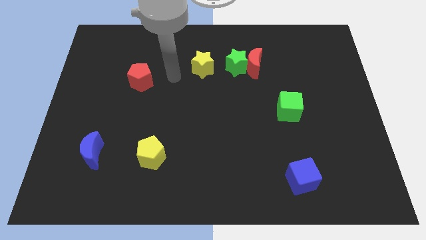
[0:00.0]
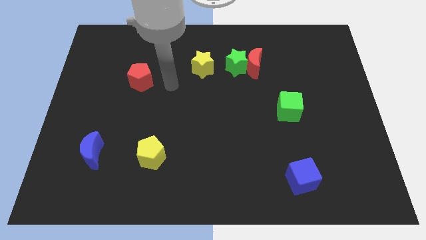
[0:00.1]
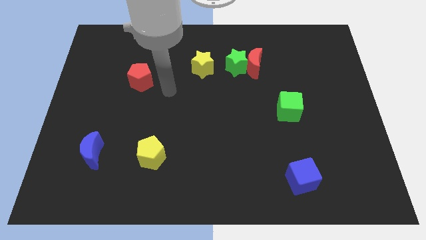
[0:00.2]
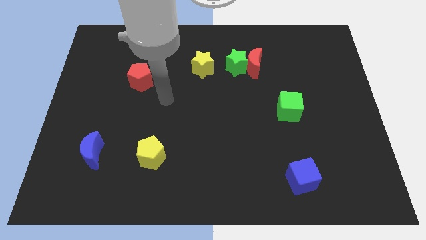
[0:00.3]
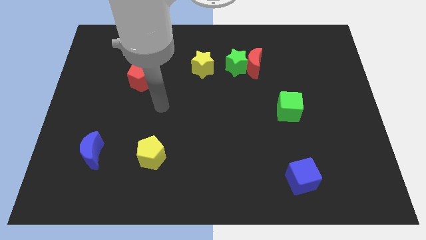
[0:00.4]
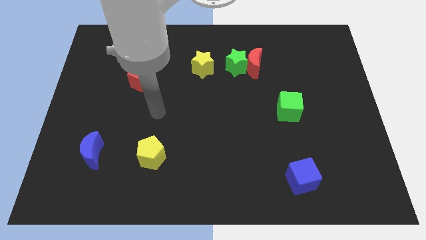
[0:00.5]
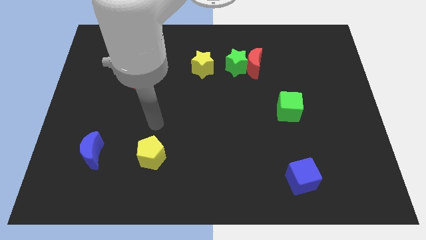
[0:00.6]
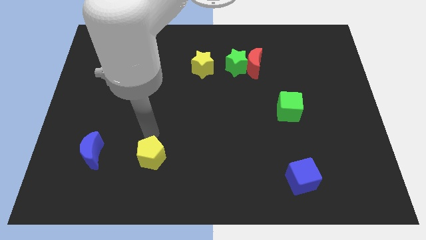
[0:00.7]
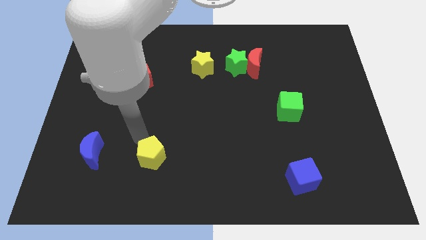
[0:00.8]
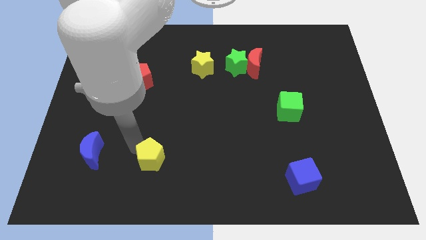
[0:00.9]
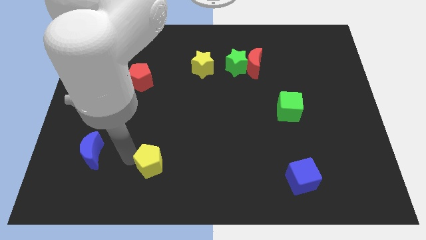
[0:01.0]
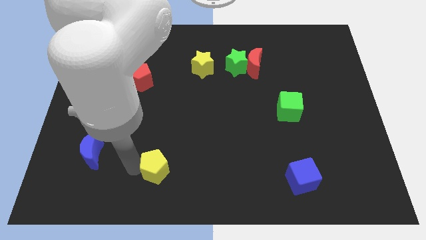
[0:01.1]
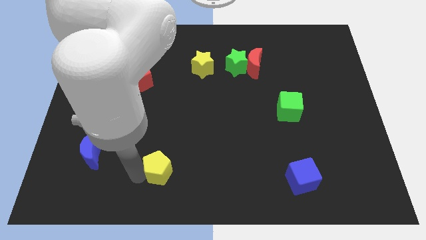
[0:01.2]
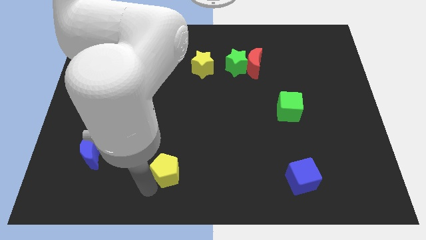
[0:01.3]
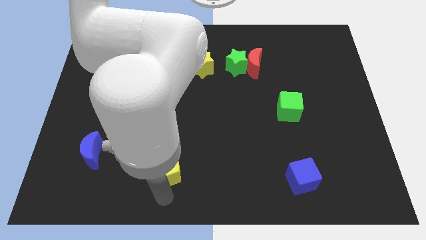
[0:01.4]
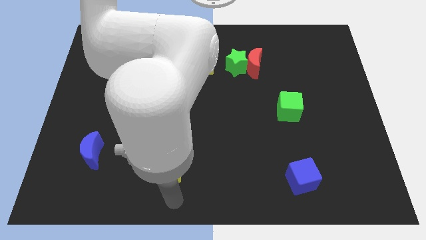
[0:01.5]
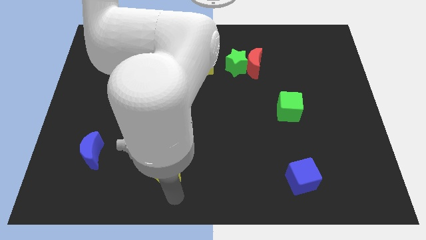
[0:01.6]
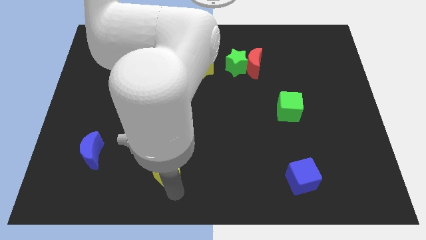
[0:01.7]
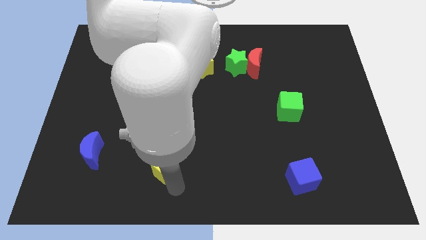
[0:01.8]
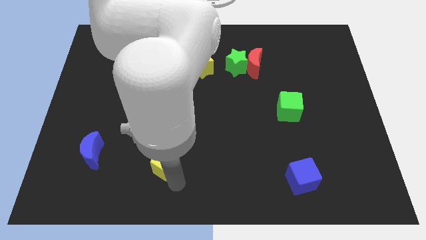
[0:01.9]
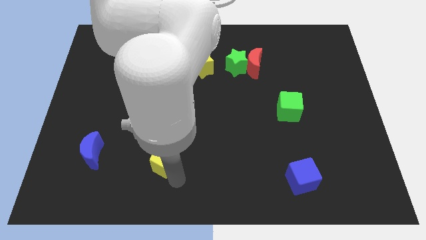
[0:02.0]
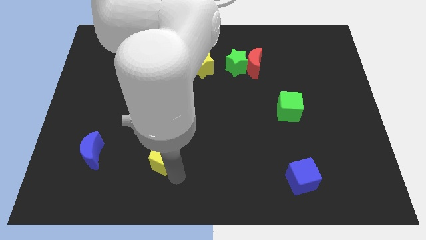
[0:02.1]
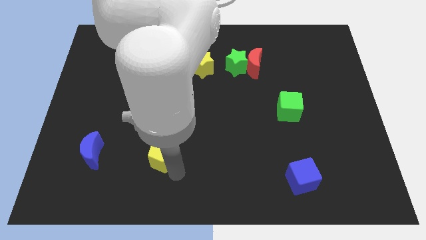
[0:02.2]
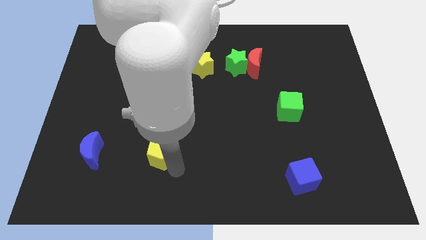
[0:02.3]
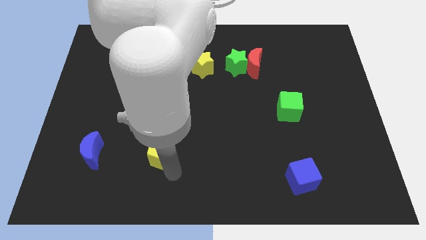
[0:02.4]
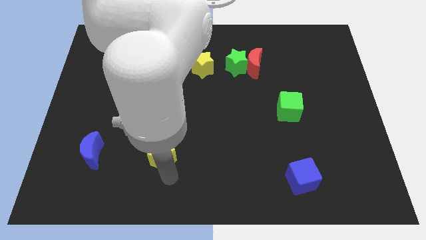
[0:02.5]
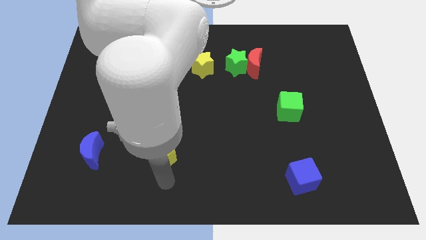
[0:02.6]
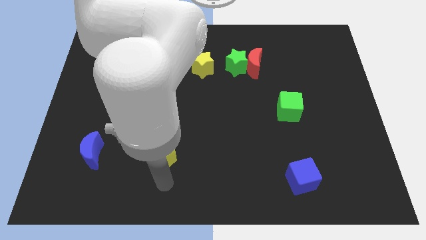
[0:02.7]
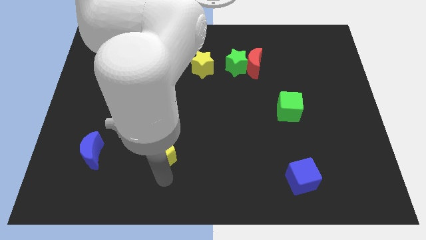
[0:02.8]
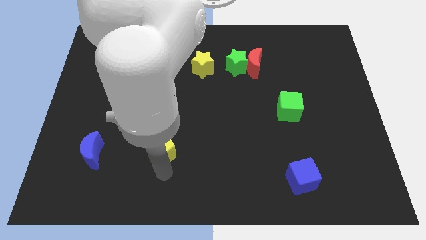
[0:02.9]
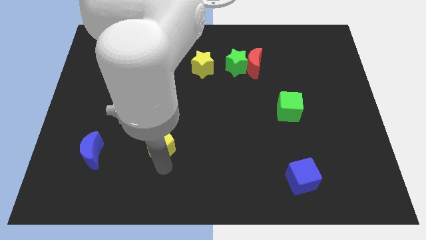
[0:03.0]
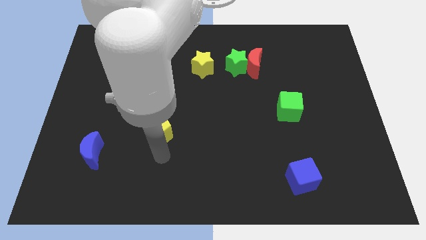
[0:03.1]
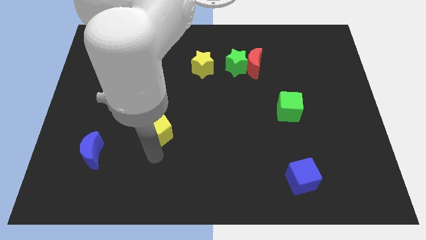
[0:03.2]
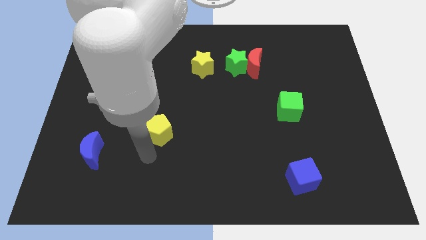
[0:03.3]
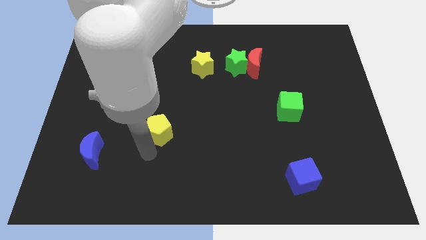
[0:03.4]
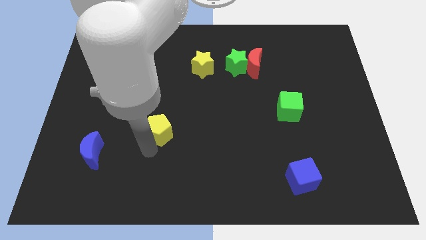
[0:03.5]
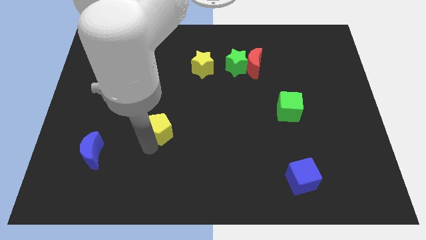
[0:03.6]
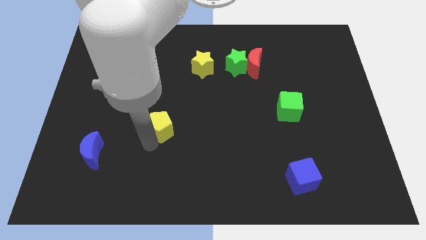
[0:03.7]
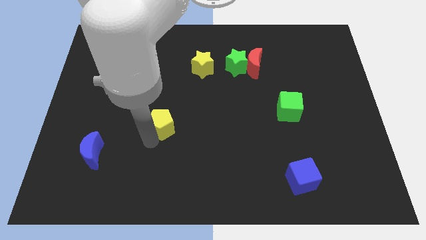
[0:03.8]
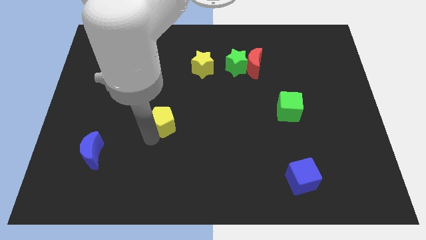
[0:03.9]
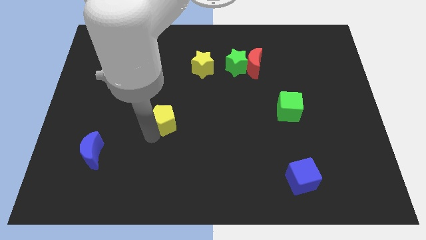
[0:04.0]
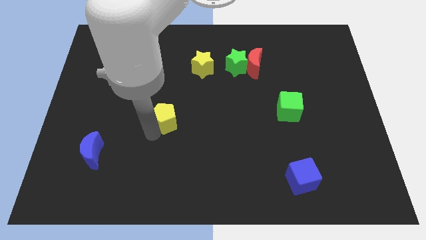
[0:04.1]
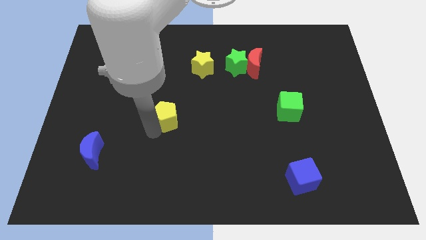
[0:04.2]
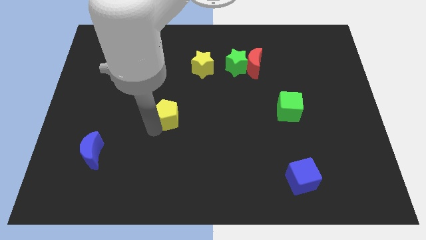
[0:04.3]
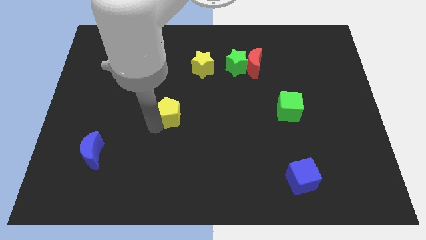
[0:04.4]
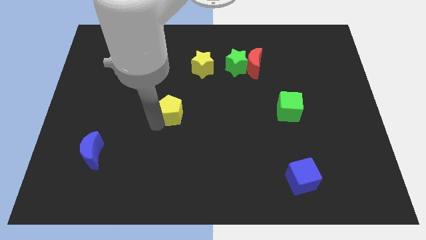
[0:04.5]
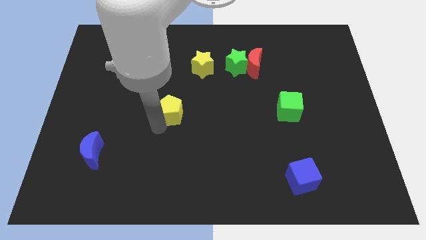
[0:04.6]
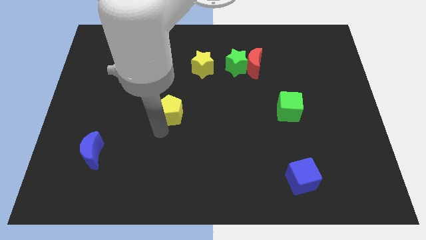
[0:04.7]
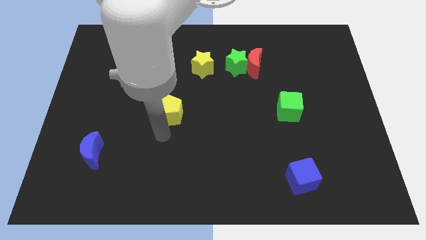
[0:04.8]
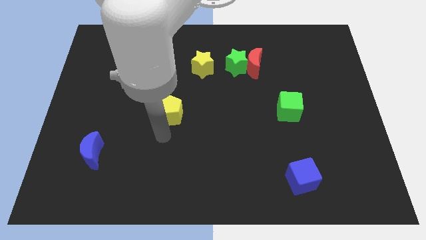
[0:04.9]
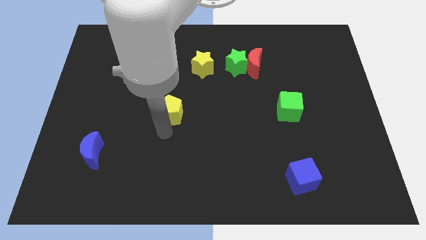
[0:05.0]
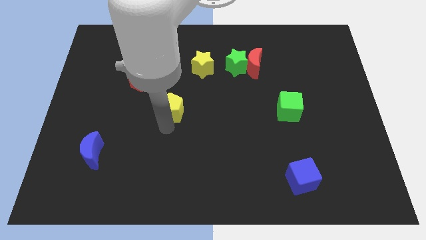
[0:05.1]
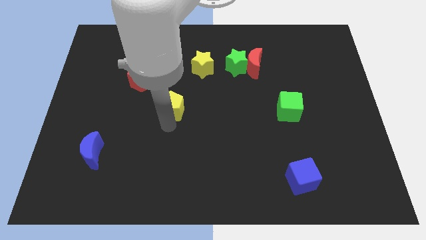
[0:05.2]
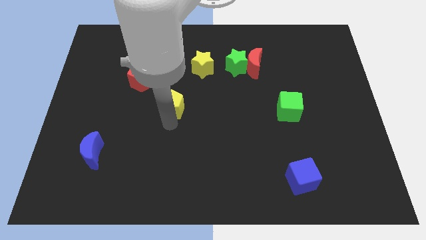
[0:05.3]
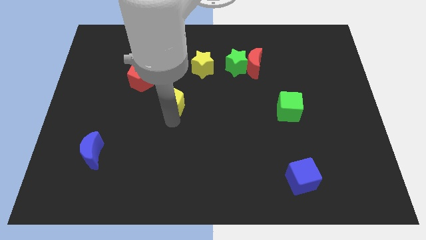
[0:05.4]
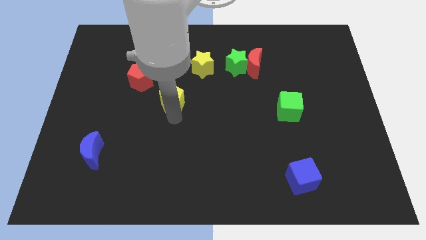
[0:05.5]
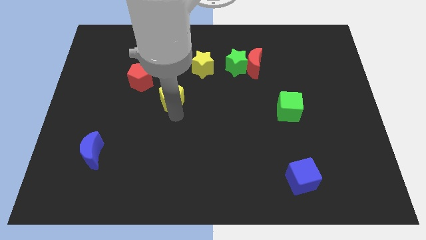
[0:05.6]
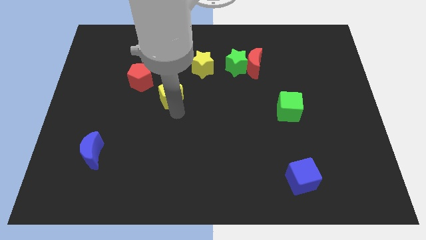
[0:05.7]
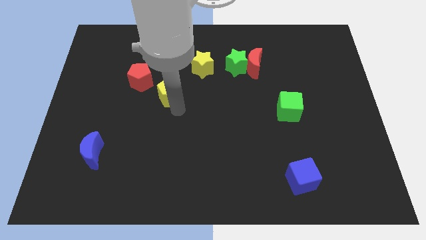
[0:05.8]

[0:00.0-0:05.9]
put the yellow pentagon right of the red pentagon

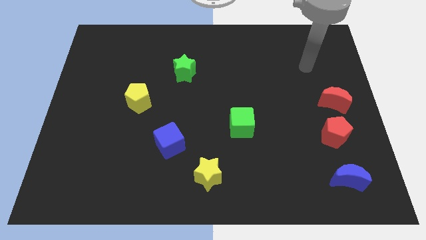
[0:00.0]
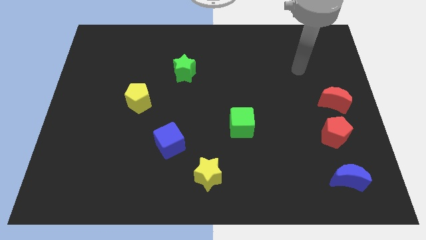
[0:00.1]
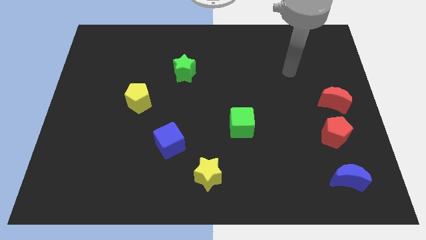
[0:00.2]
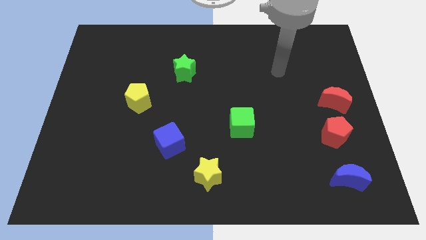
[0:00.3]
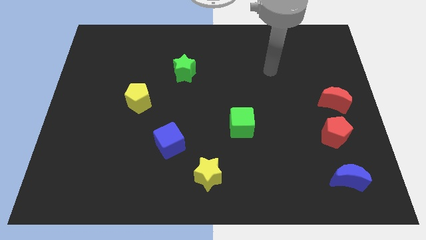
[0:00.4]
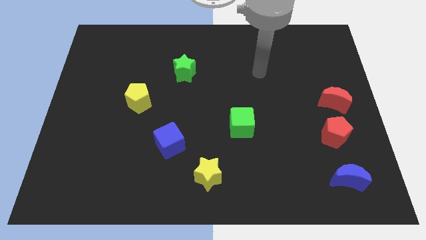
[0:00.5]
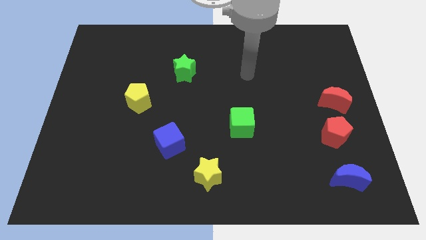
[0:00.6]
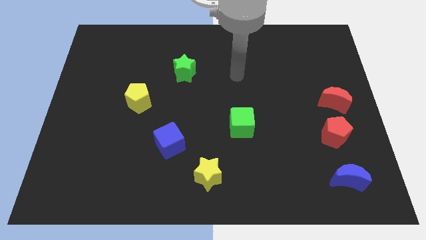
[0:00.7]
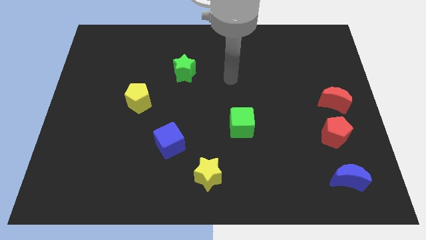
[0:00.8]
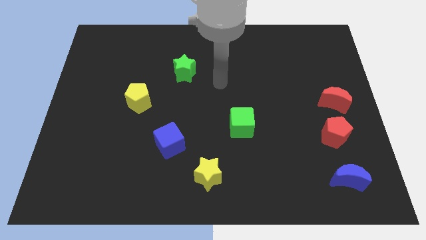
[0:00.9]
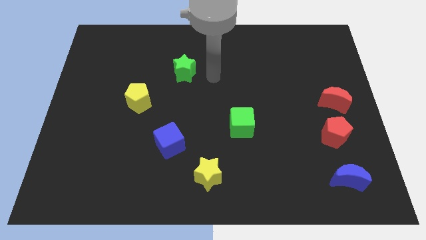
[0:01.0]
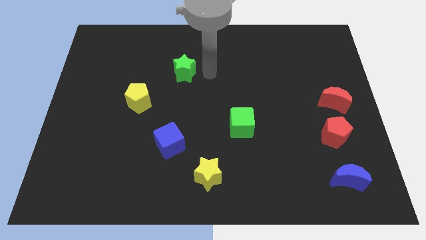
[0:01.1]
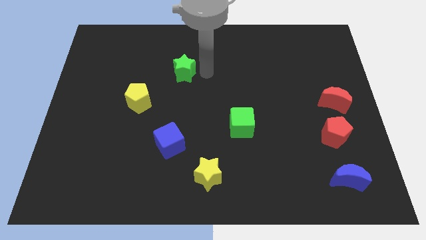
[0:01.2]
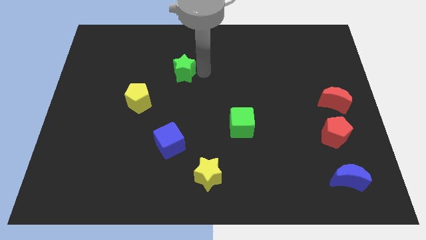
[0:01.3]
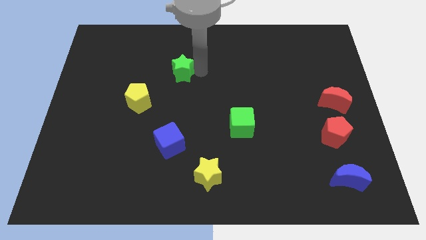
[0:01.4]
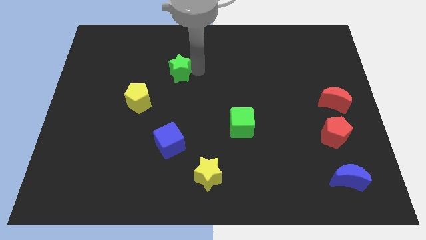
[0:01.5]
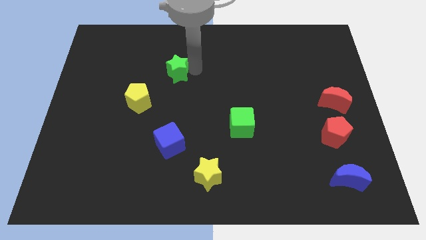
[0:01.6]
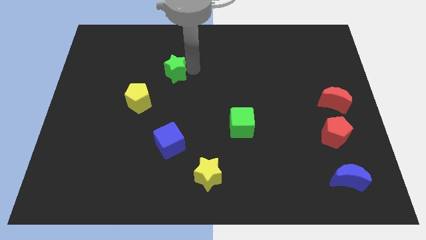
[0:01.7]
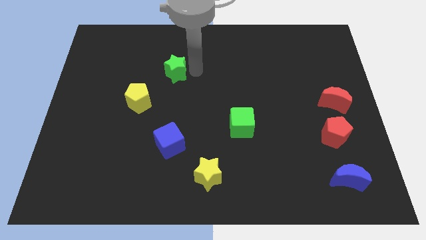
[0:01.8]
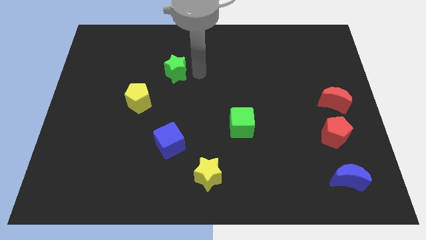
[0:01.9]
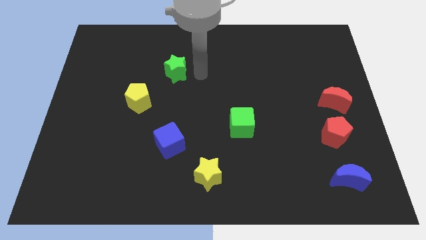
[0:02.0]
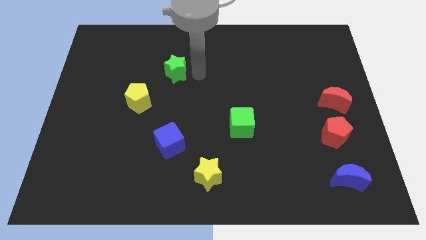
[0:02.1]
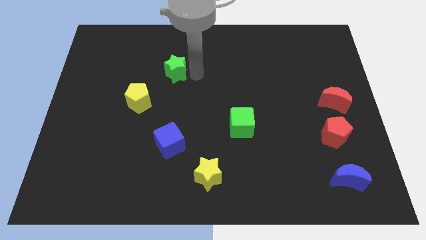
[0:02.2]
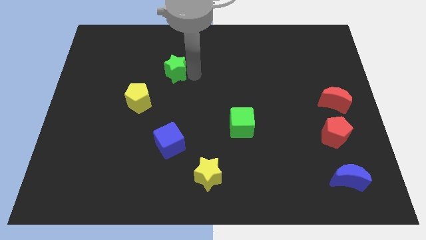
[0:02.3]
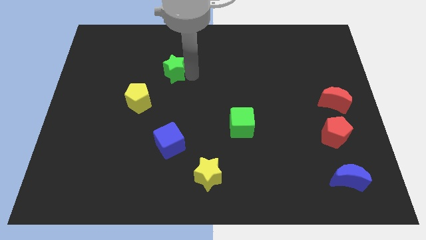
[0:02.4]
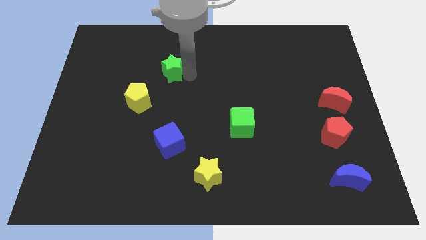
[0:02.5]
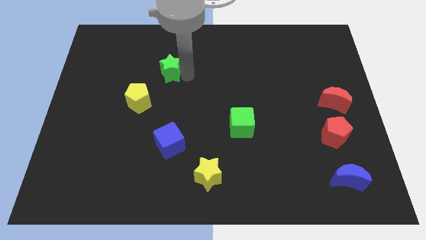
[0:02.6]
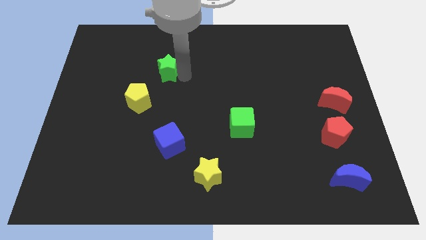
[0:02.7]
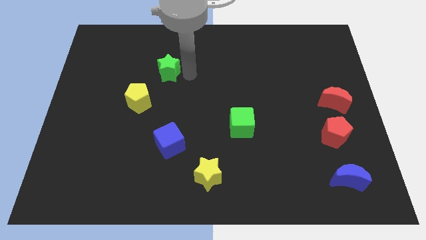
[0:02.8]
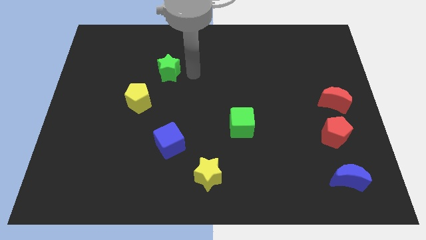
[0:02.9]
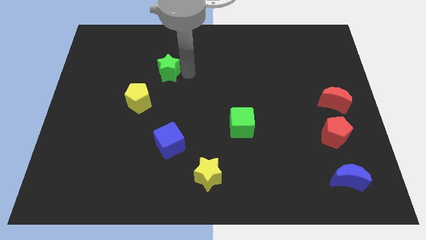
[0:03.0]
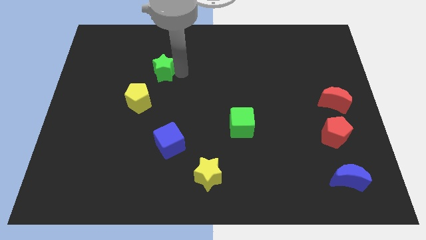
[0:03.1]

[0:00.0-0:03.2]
put the green star to the top of the yellow pentagon
